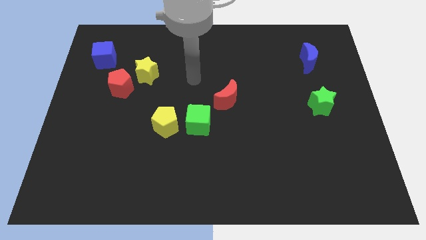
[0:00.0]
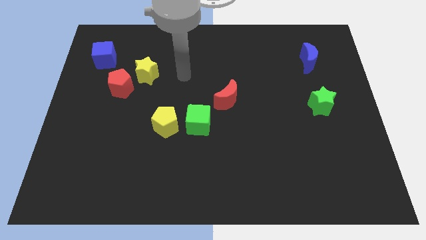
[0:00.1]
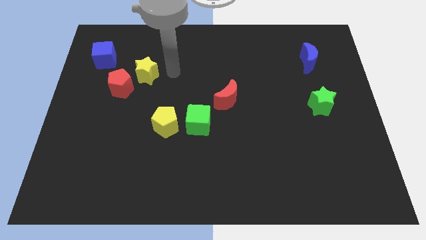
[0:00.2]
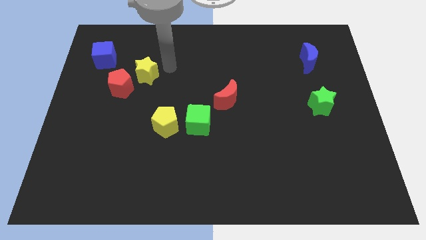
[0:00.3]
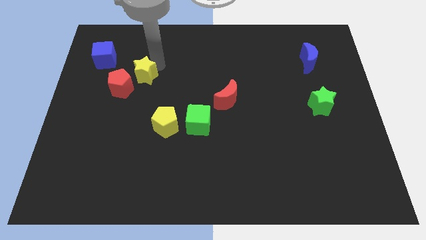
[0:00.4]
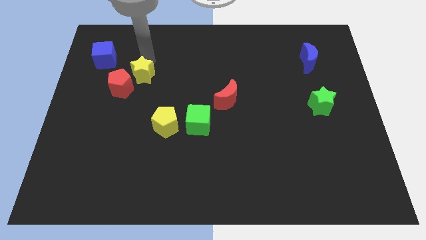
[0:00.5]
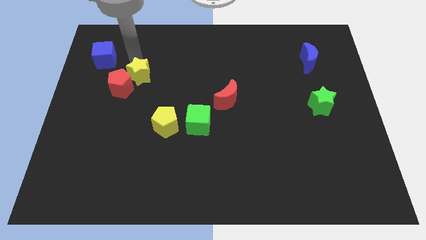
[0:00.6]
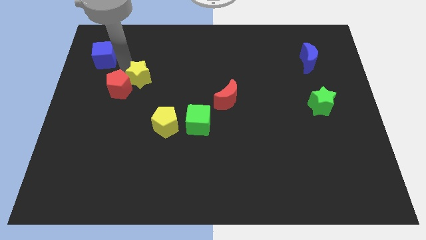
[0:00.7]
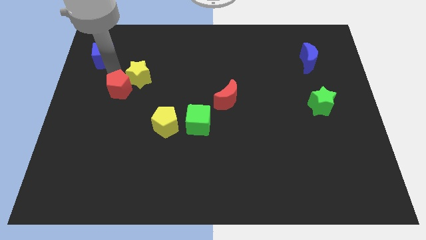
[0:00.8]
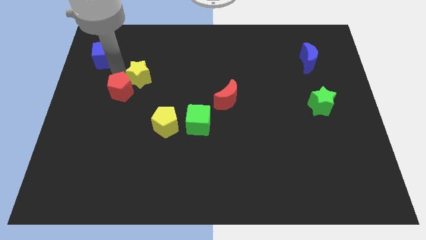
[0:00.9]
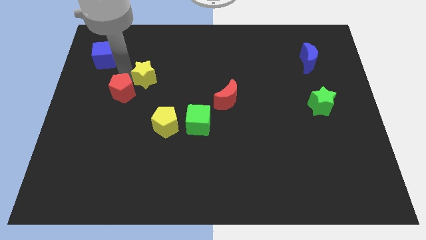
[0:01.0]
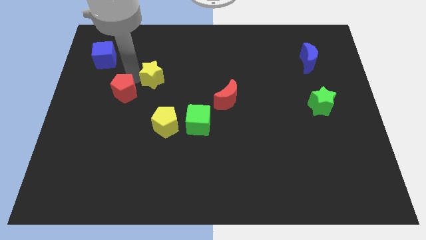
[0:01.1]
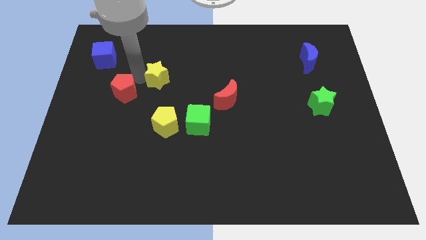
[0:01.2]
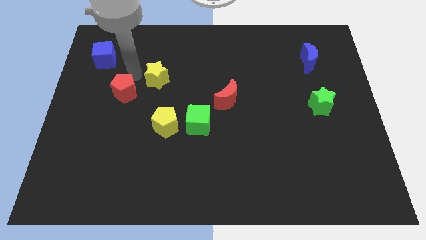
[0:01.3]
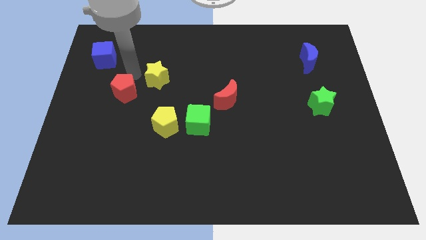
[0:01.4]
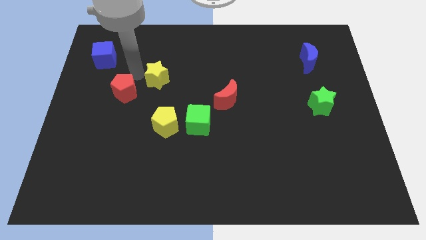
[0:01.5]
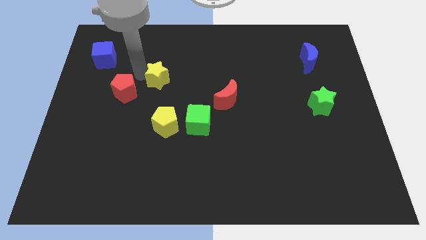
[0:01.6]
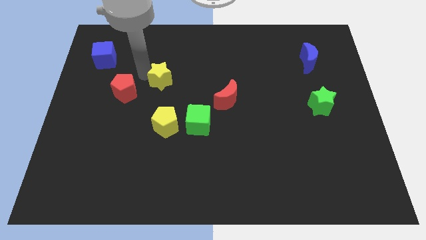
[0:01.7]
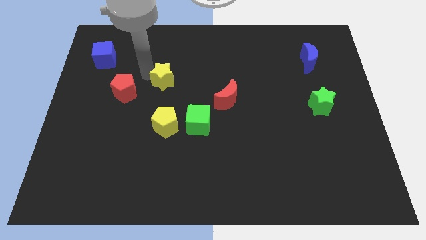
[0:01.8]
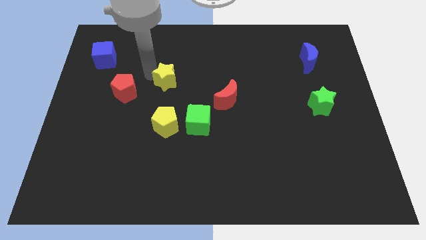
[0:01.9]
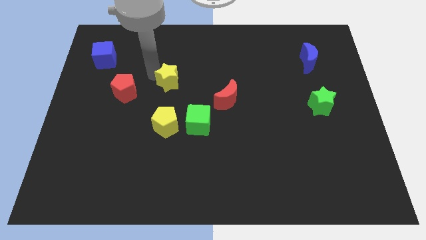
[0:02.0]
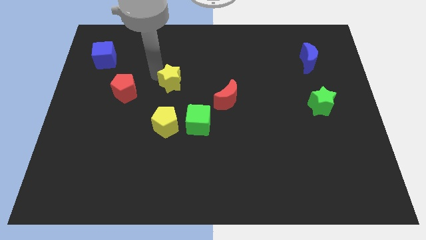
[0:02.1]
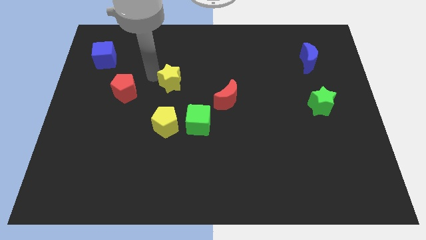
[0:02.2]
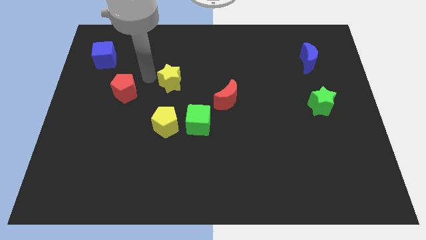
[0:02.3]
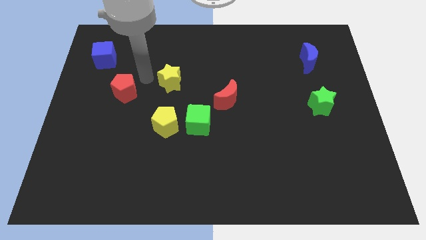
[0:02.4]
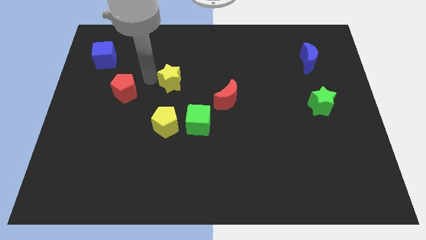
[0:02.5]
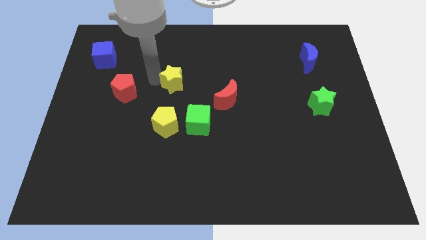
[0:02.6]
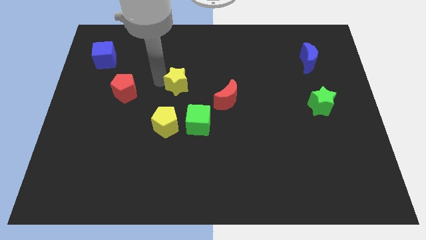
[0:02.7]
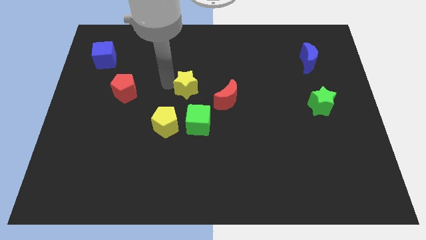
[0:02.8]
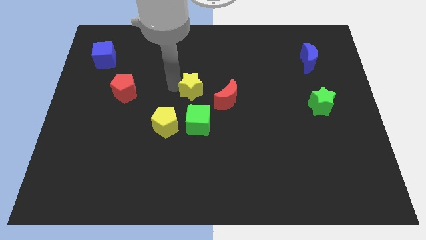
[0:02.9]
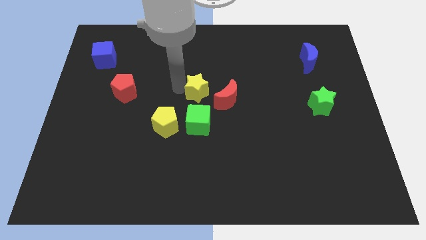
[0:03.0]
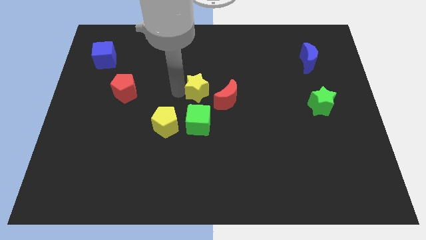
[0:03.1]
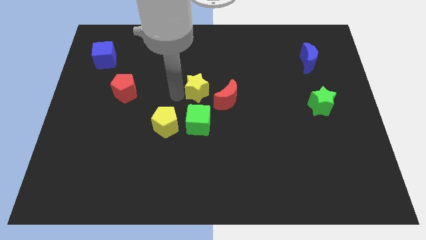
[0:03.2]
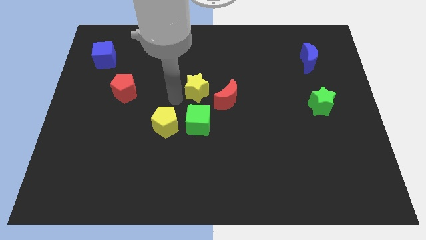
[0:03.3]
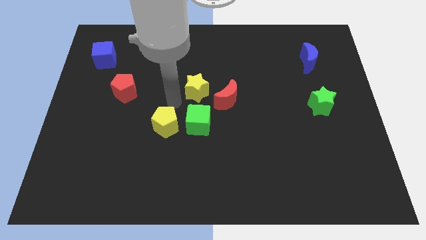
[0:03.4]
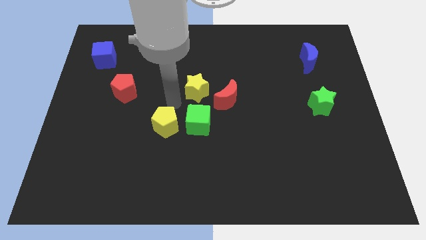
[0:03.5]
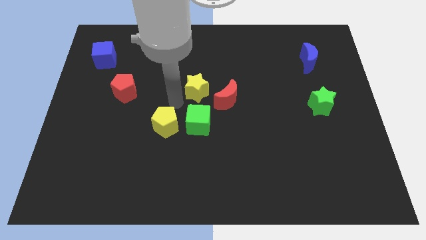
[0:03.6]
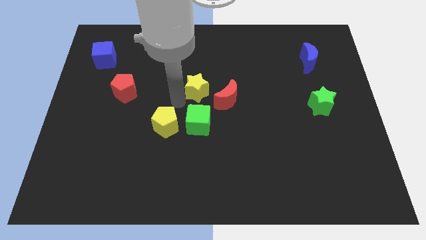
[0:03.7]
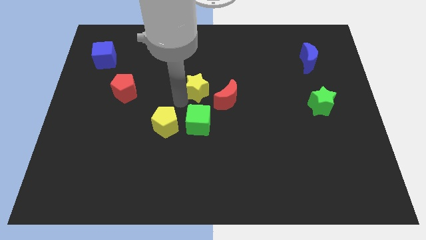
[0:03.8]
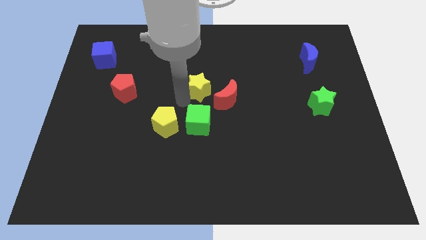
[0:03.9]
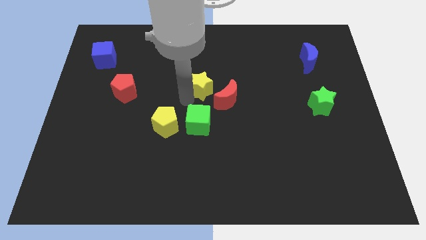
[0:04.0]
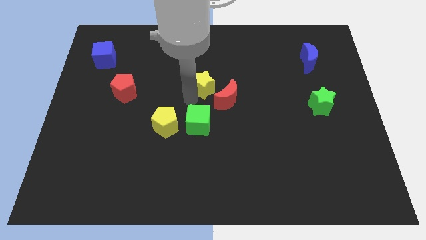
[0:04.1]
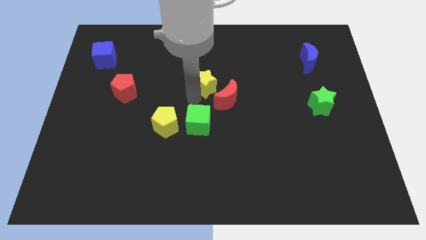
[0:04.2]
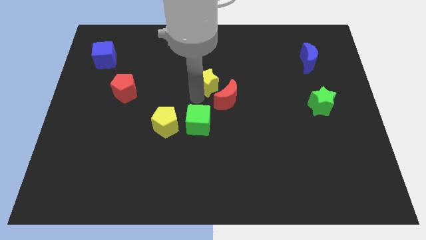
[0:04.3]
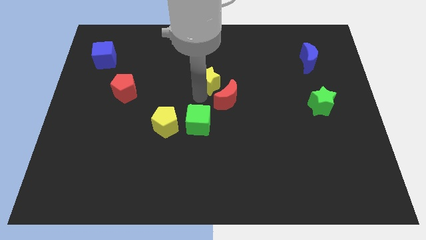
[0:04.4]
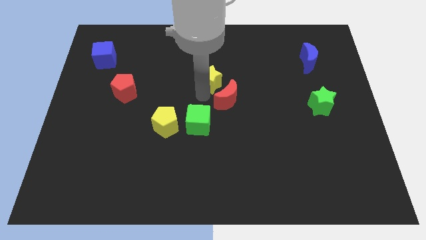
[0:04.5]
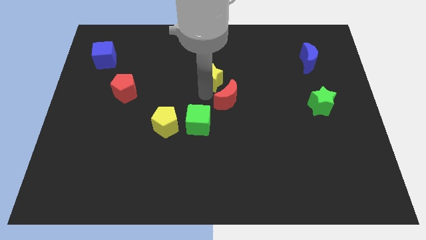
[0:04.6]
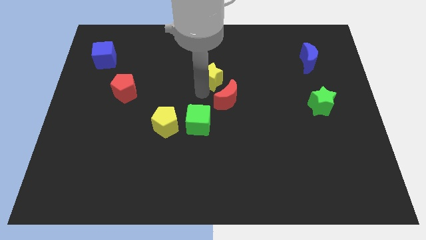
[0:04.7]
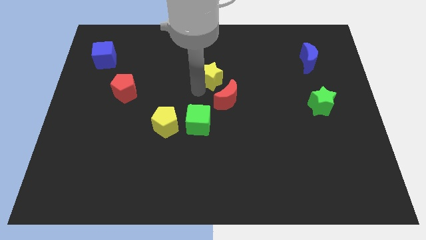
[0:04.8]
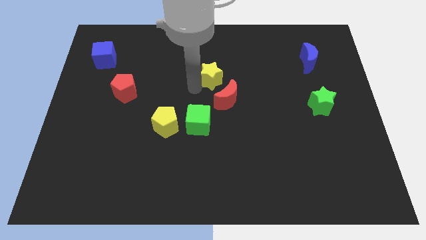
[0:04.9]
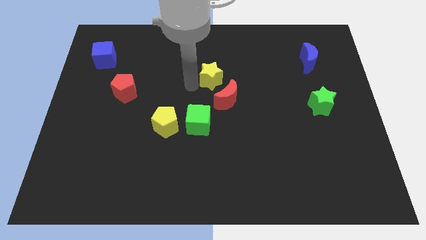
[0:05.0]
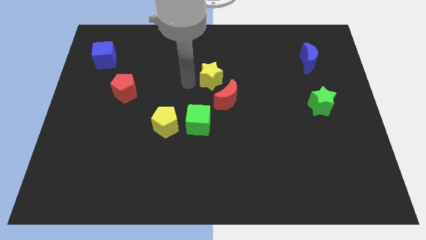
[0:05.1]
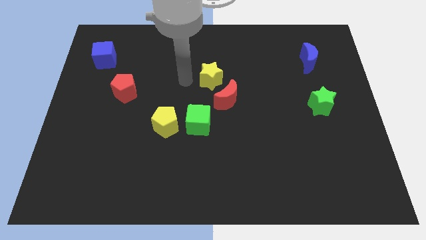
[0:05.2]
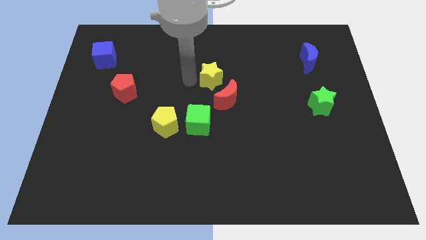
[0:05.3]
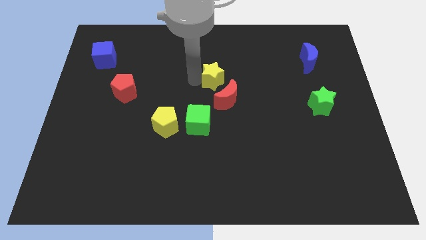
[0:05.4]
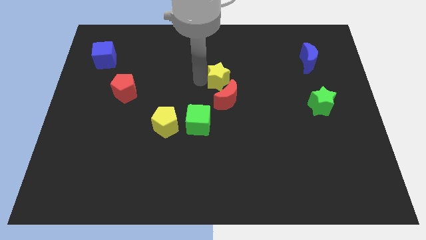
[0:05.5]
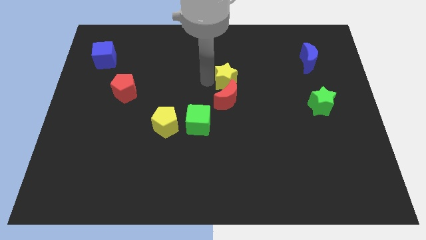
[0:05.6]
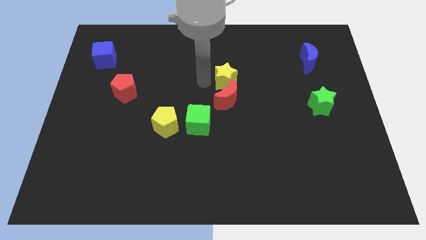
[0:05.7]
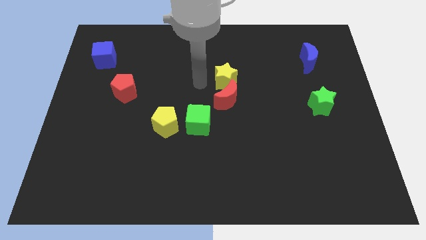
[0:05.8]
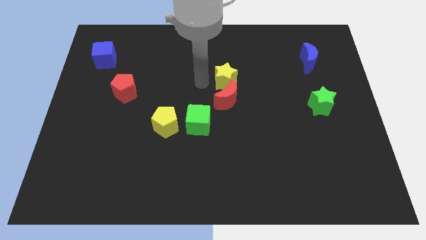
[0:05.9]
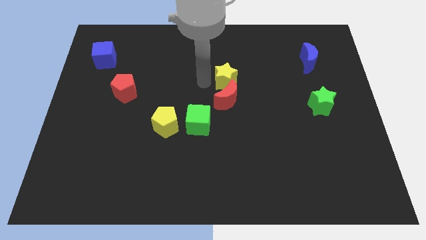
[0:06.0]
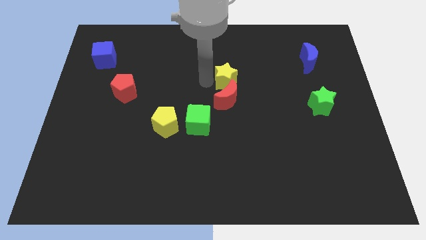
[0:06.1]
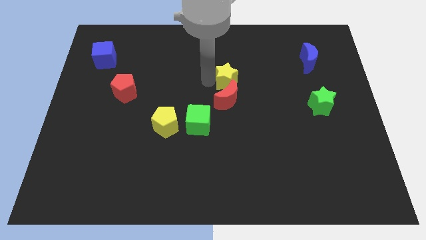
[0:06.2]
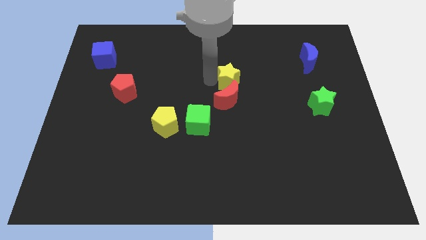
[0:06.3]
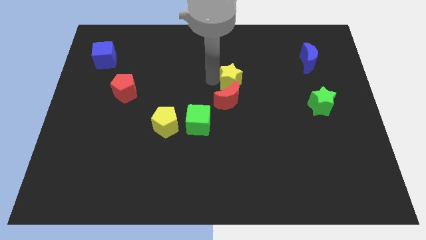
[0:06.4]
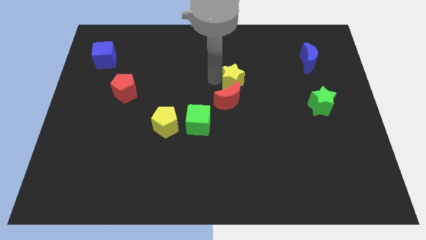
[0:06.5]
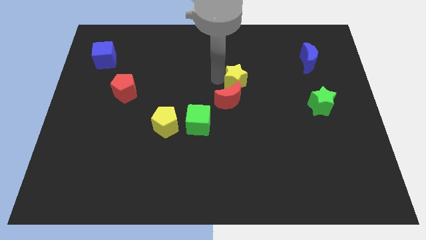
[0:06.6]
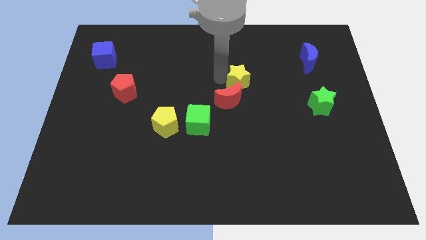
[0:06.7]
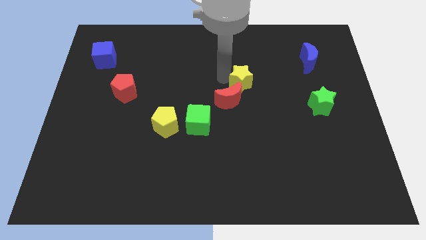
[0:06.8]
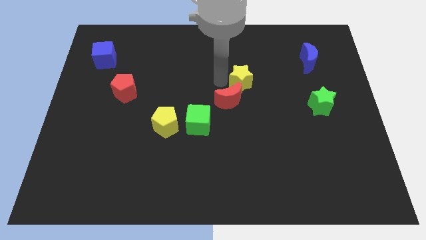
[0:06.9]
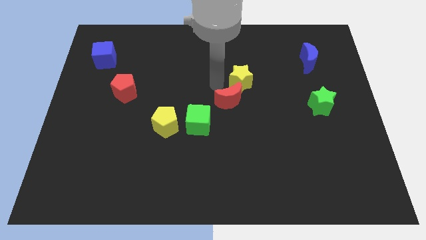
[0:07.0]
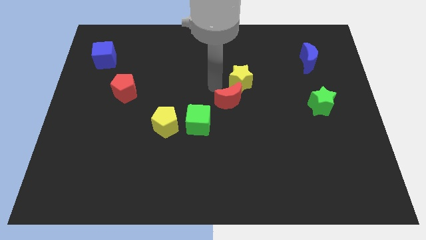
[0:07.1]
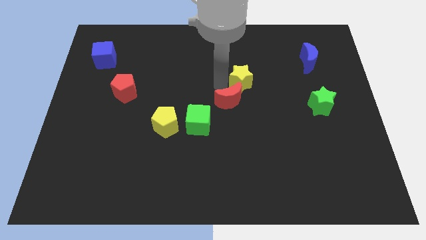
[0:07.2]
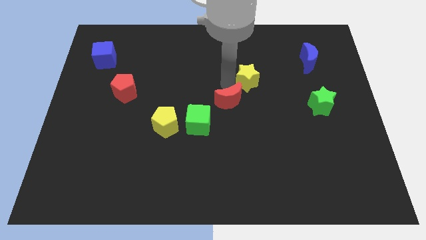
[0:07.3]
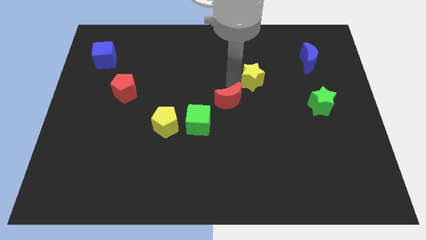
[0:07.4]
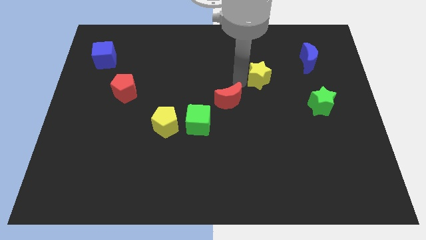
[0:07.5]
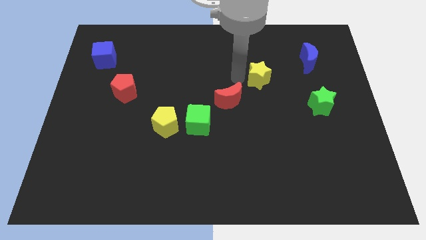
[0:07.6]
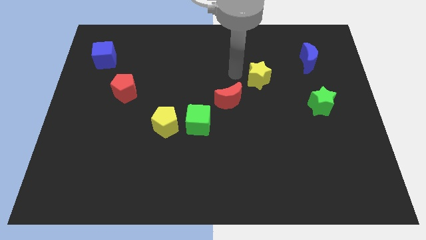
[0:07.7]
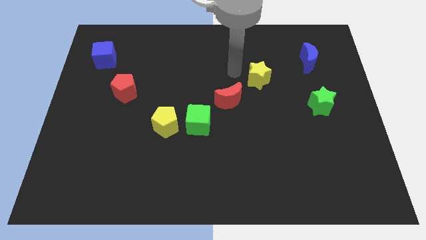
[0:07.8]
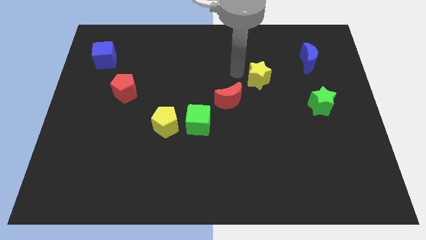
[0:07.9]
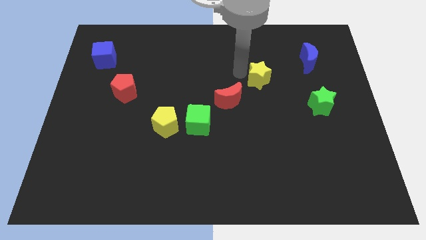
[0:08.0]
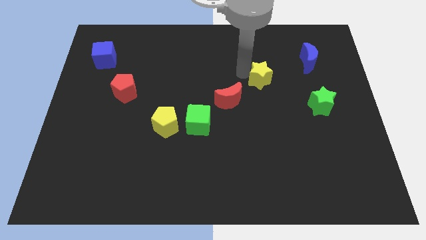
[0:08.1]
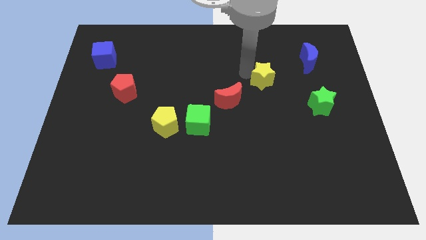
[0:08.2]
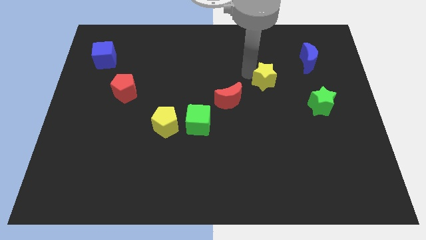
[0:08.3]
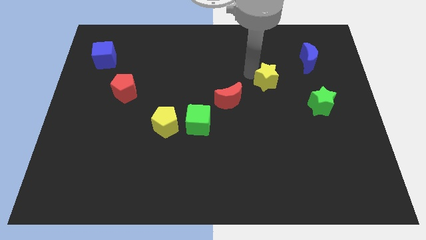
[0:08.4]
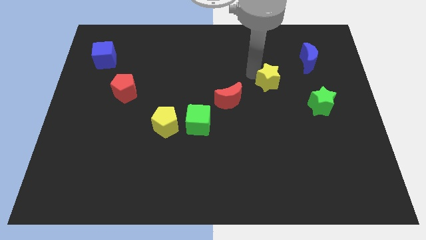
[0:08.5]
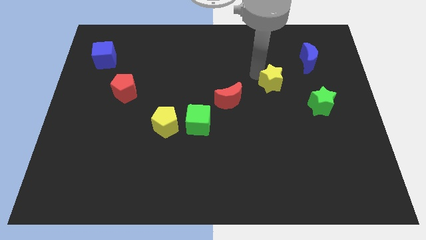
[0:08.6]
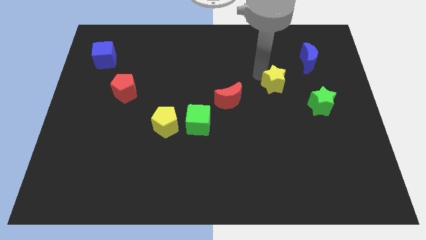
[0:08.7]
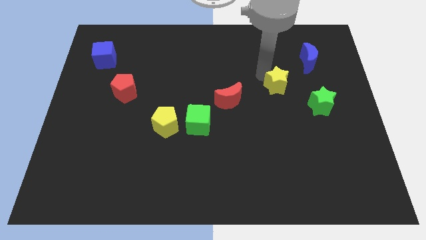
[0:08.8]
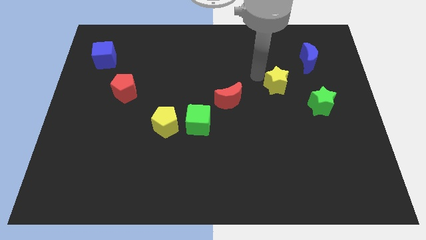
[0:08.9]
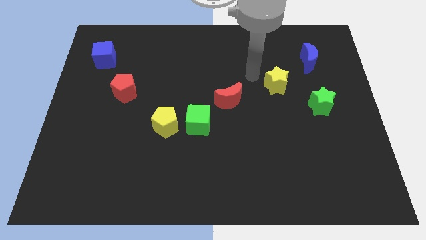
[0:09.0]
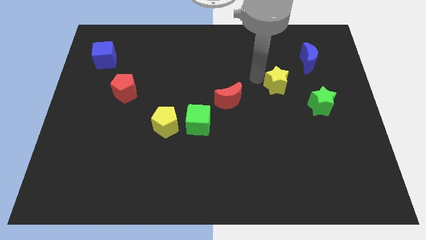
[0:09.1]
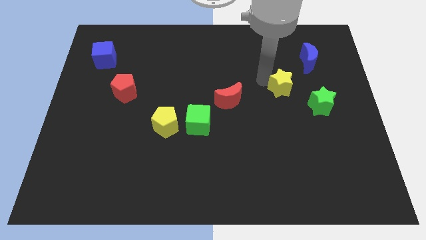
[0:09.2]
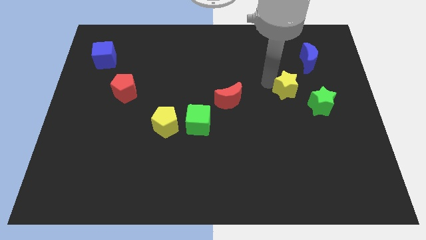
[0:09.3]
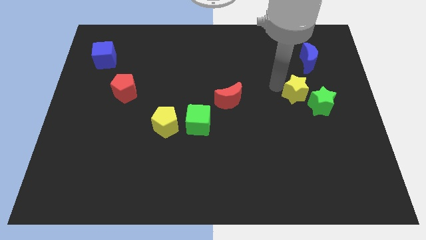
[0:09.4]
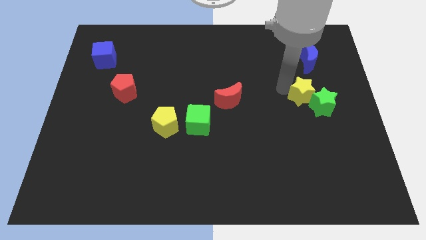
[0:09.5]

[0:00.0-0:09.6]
put the yellow star towards the green star
